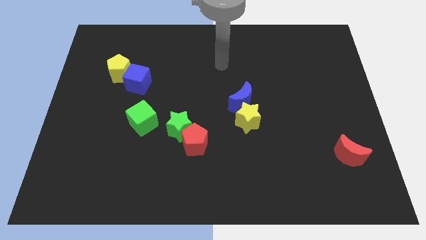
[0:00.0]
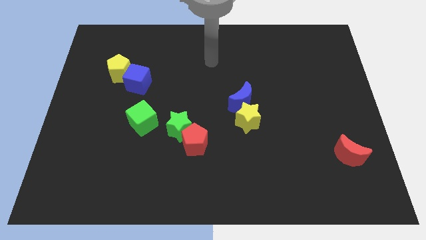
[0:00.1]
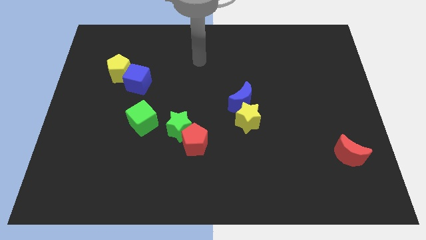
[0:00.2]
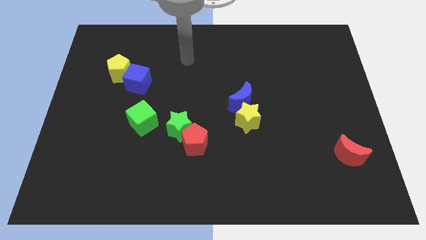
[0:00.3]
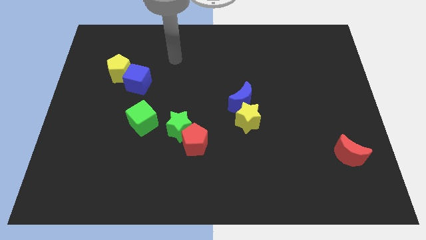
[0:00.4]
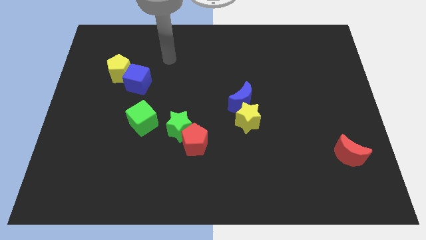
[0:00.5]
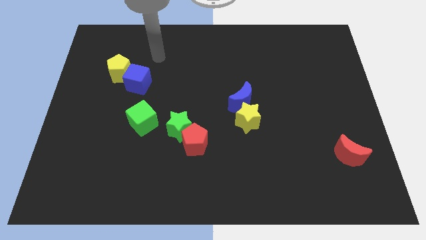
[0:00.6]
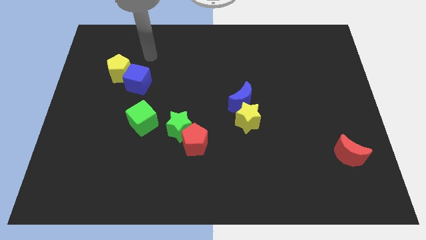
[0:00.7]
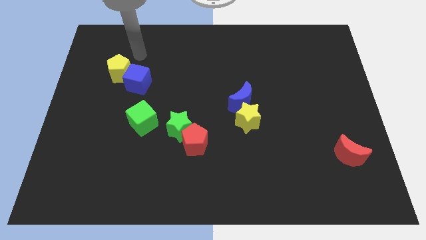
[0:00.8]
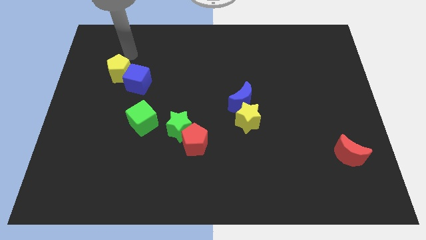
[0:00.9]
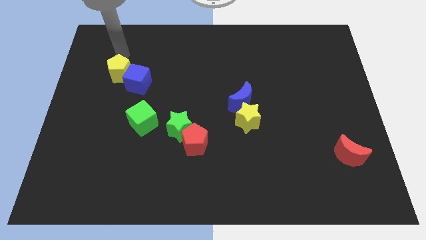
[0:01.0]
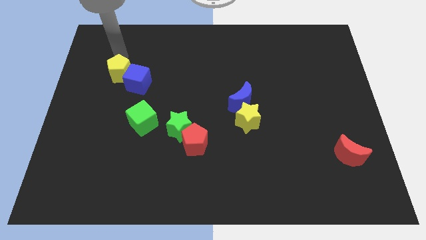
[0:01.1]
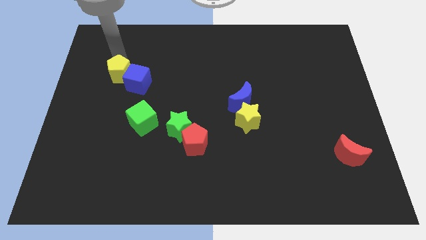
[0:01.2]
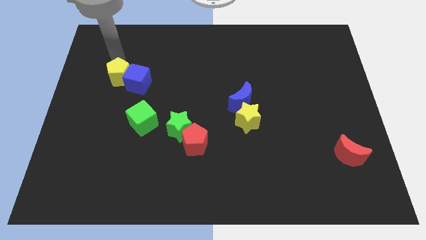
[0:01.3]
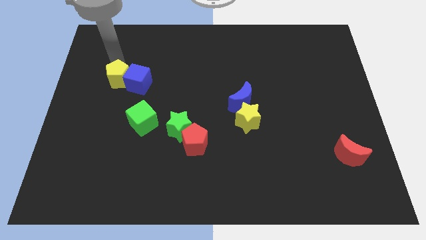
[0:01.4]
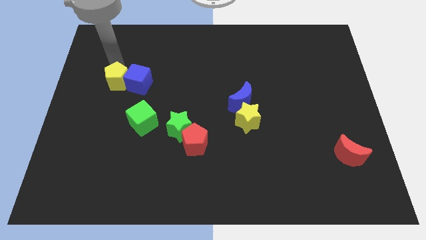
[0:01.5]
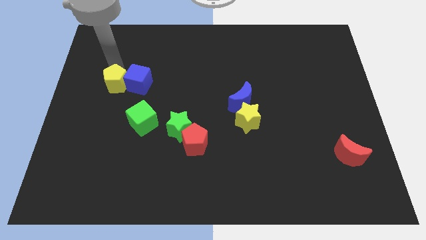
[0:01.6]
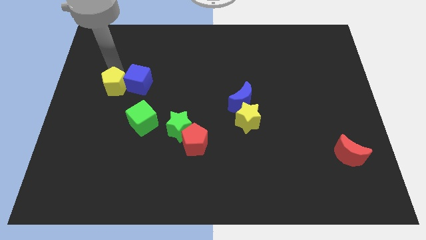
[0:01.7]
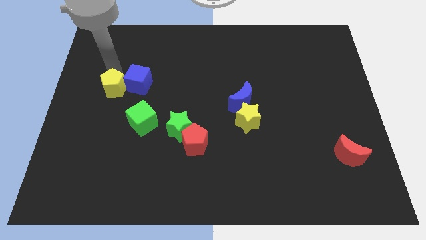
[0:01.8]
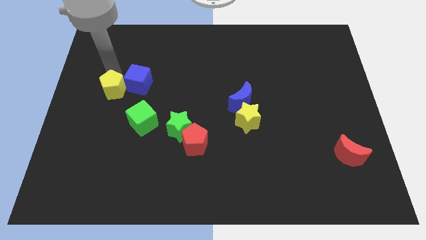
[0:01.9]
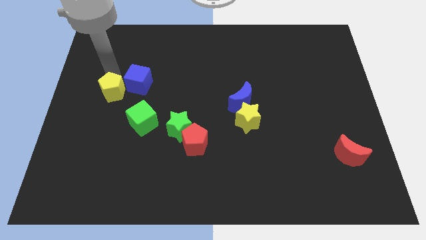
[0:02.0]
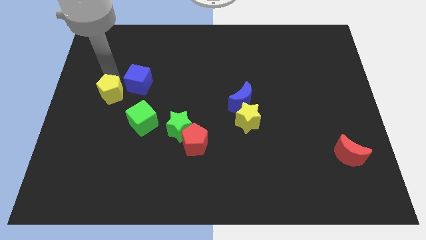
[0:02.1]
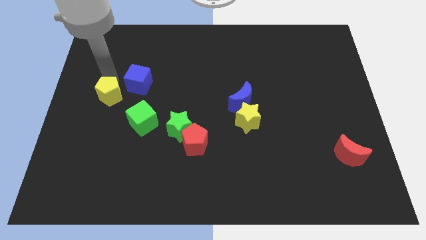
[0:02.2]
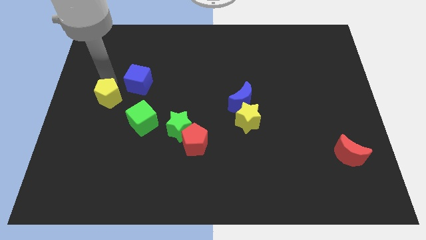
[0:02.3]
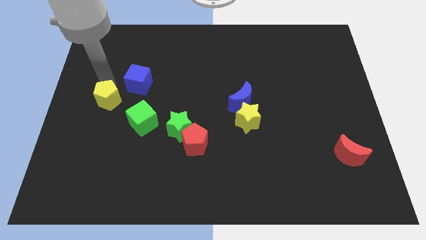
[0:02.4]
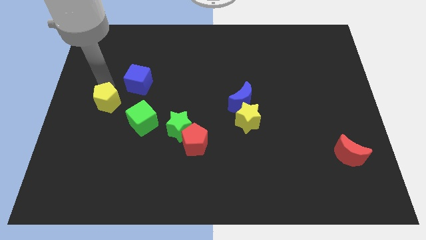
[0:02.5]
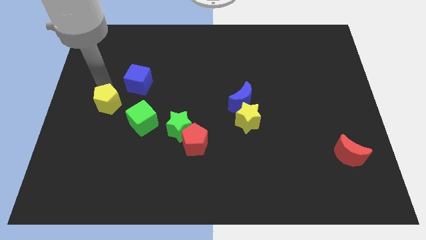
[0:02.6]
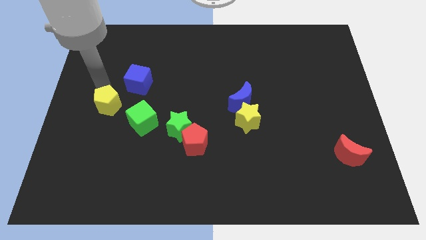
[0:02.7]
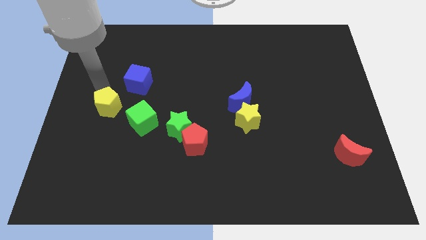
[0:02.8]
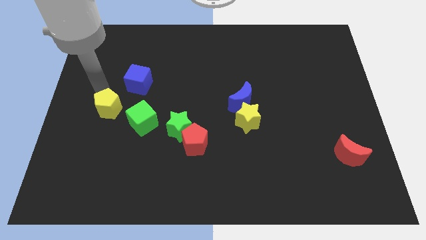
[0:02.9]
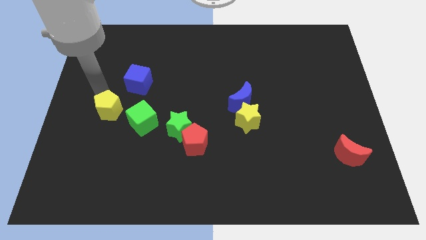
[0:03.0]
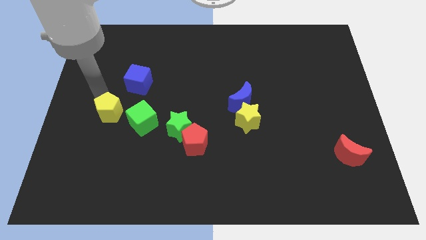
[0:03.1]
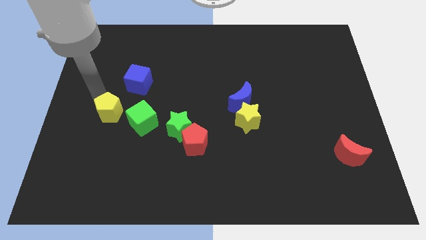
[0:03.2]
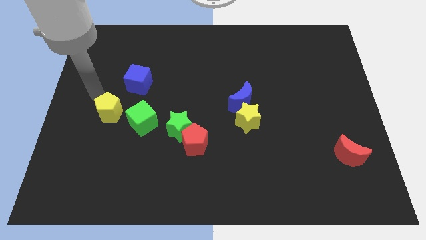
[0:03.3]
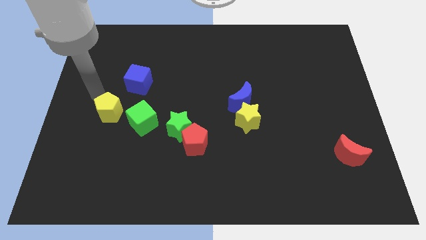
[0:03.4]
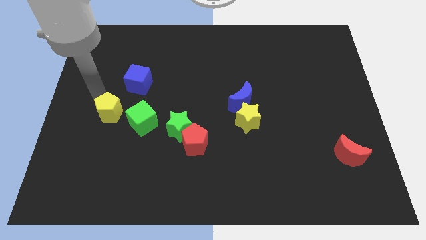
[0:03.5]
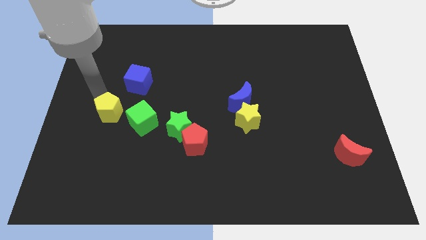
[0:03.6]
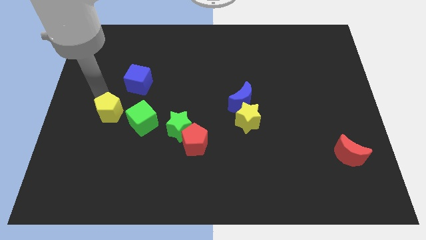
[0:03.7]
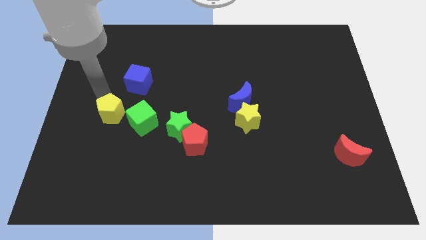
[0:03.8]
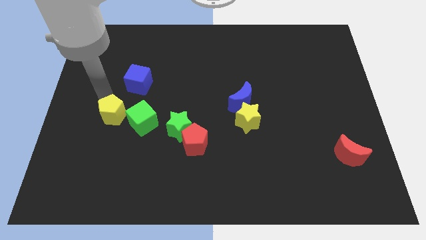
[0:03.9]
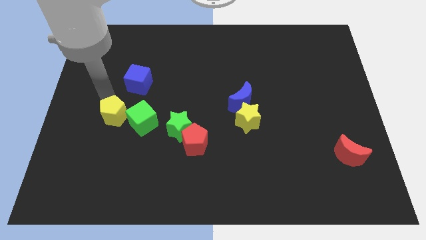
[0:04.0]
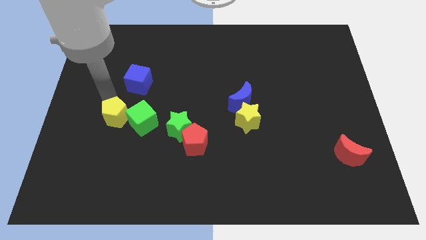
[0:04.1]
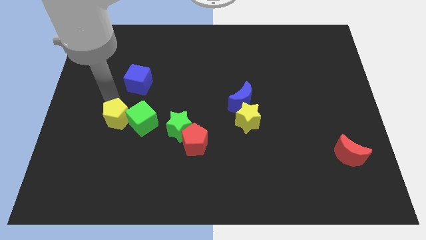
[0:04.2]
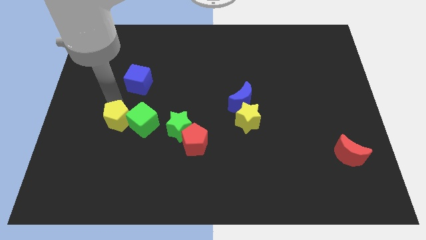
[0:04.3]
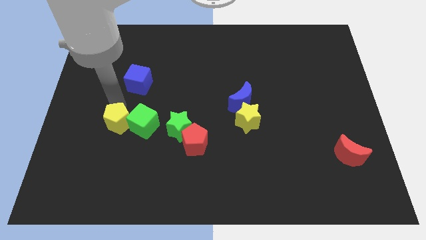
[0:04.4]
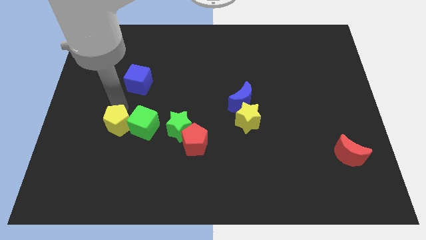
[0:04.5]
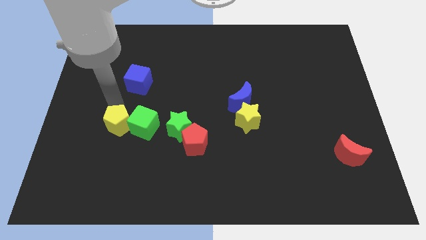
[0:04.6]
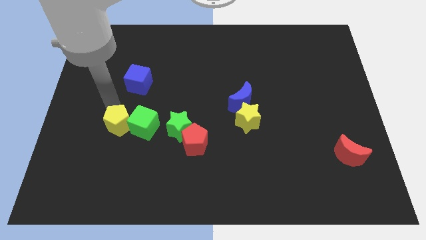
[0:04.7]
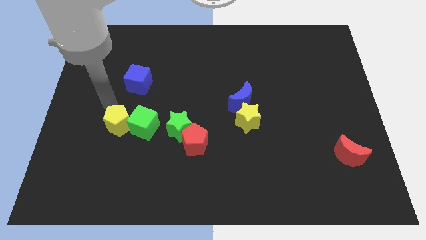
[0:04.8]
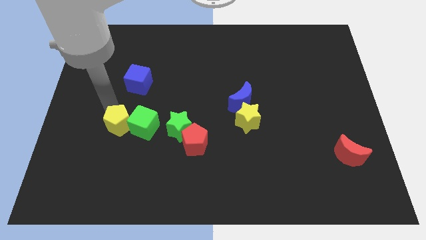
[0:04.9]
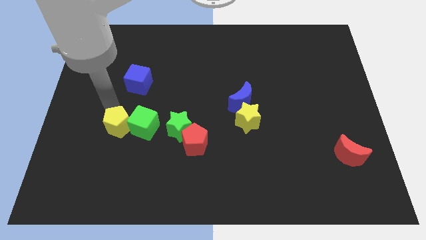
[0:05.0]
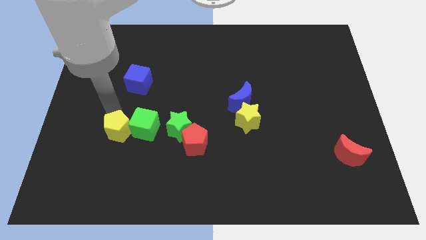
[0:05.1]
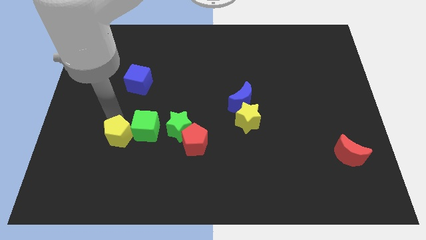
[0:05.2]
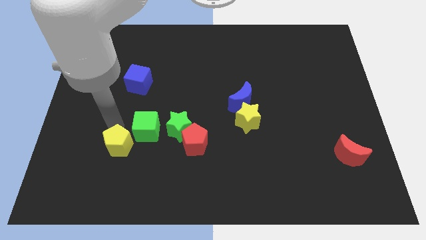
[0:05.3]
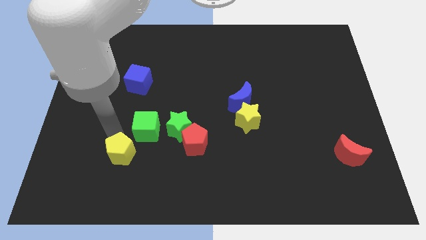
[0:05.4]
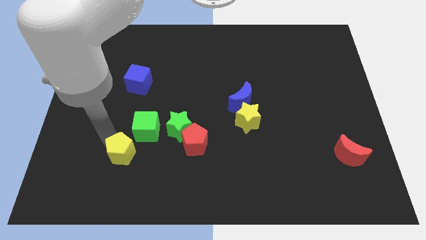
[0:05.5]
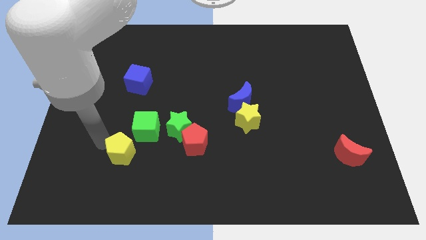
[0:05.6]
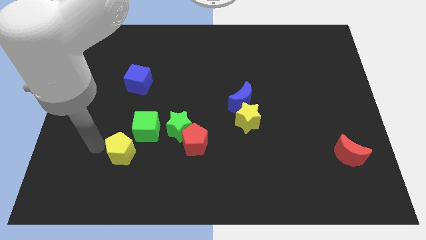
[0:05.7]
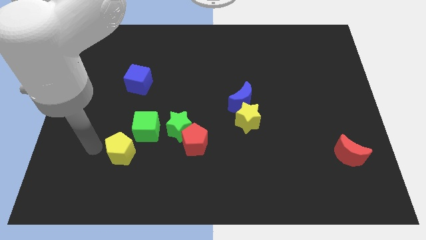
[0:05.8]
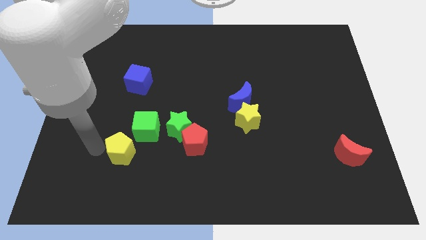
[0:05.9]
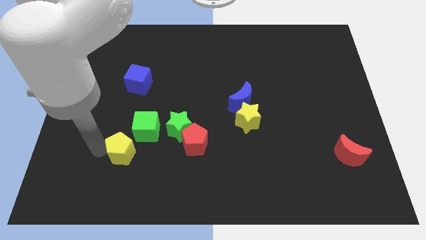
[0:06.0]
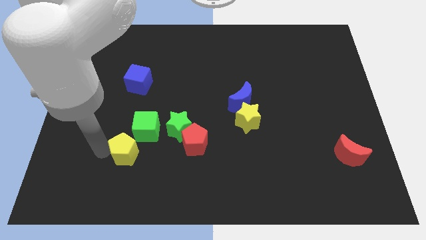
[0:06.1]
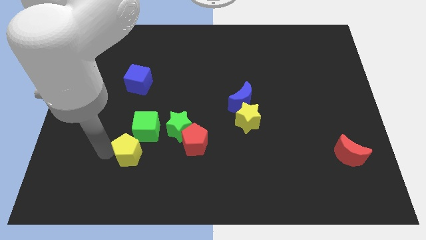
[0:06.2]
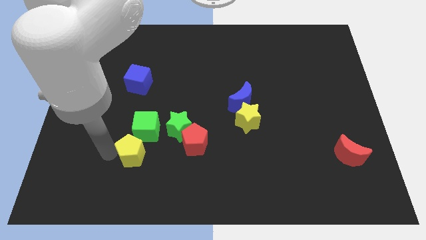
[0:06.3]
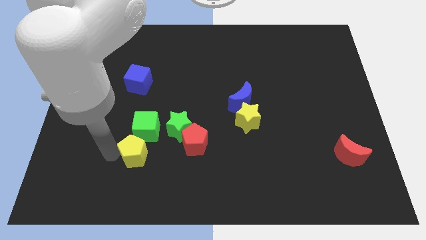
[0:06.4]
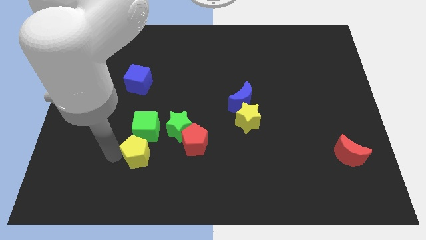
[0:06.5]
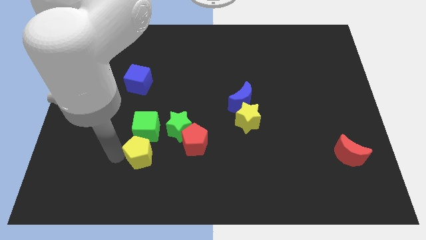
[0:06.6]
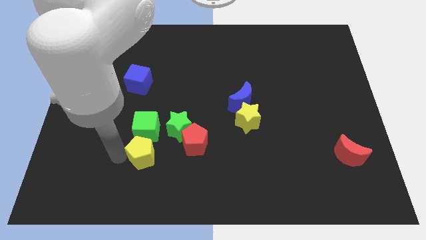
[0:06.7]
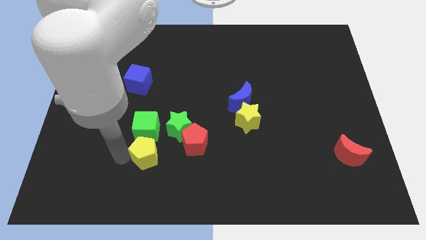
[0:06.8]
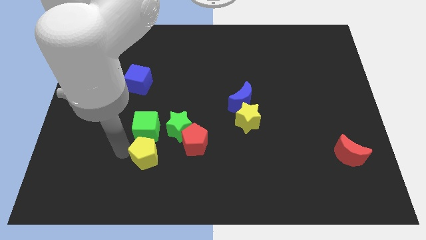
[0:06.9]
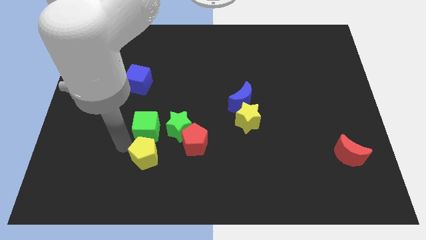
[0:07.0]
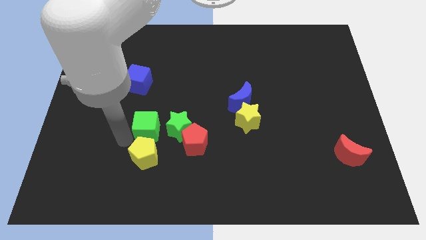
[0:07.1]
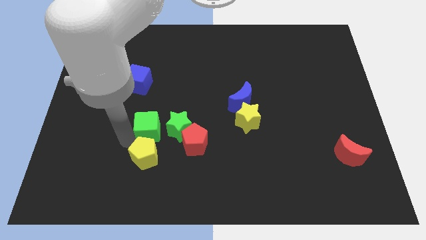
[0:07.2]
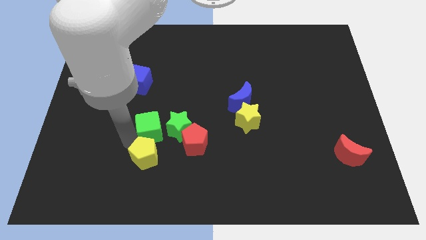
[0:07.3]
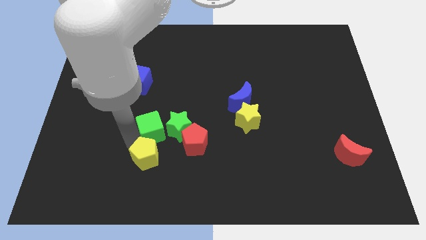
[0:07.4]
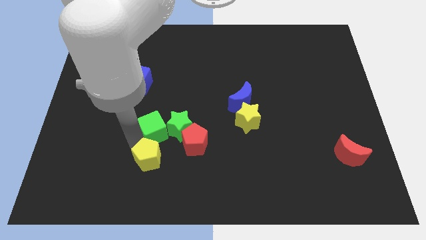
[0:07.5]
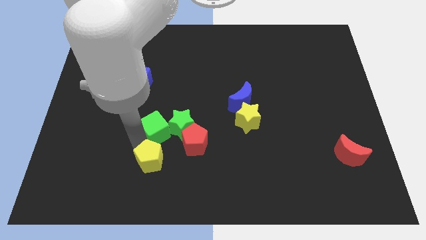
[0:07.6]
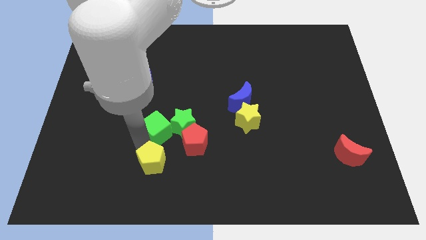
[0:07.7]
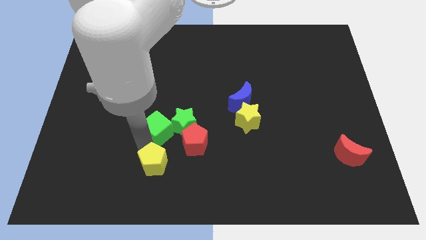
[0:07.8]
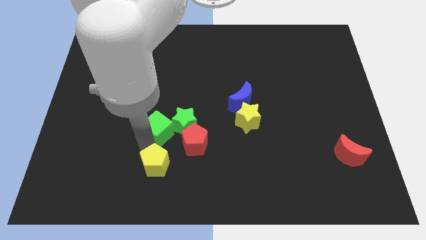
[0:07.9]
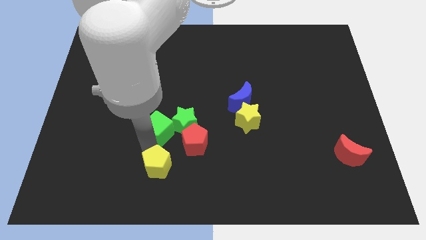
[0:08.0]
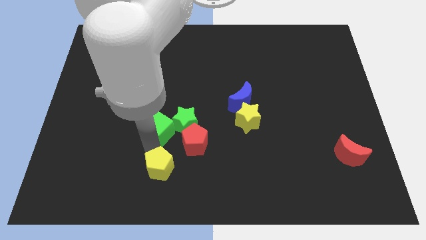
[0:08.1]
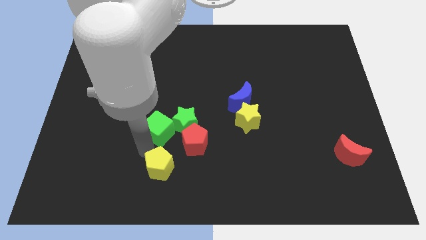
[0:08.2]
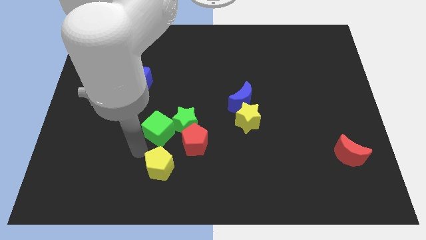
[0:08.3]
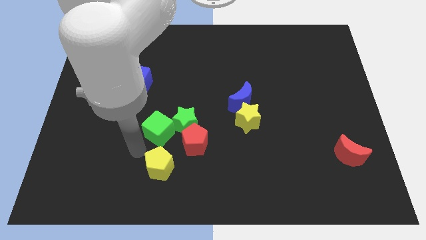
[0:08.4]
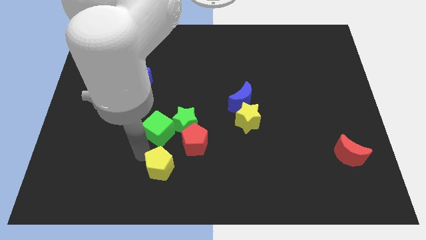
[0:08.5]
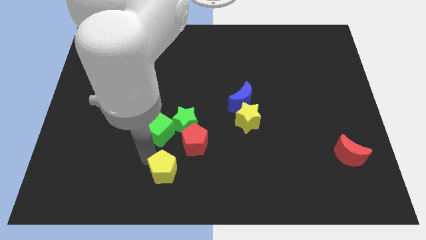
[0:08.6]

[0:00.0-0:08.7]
push the yellow pentagon to the bottom
